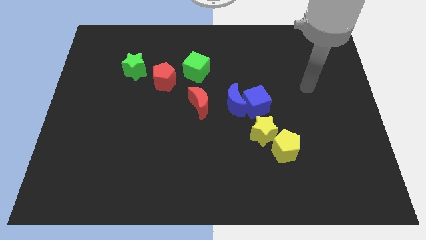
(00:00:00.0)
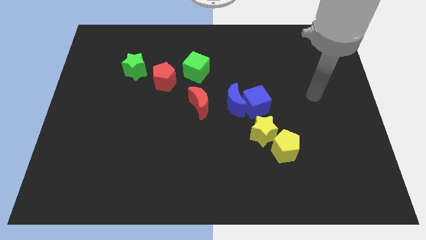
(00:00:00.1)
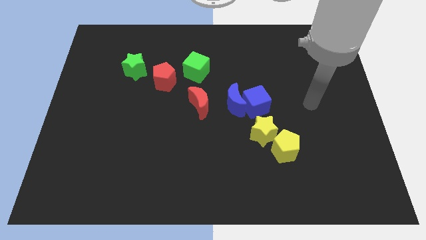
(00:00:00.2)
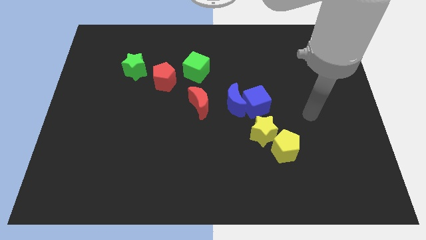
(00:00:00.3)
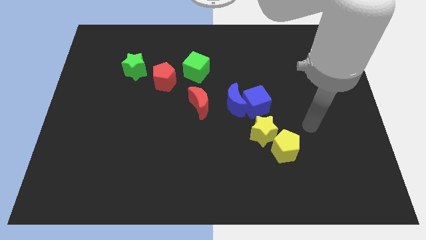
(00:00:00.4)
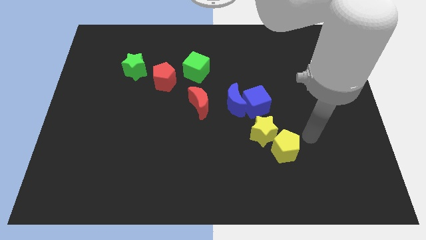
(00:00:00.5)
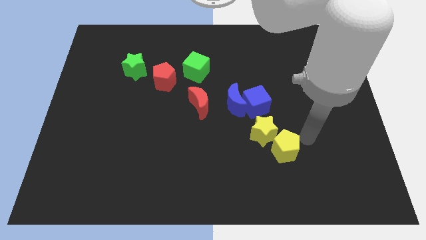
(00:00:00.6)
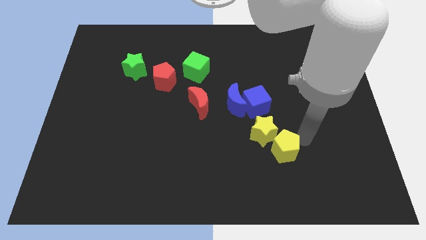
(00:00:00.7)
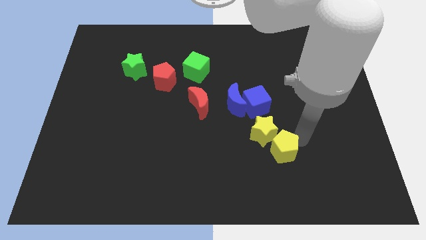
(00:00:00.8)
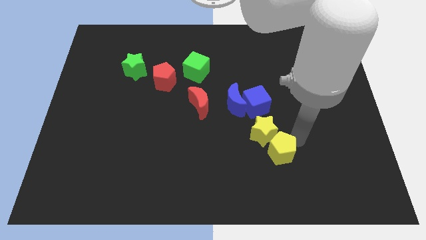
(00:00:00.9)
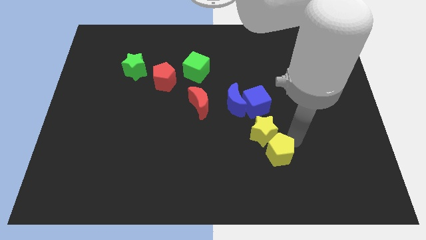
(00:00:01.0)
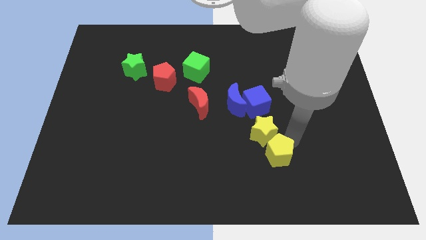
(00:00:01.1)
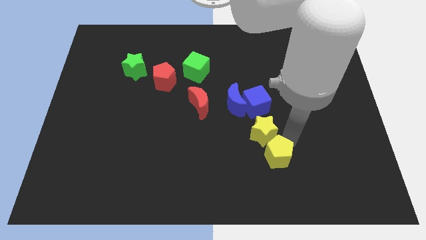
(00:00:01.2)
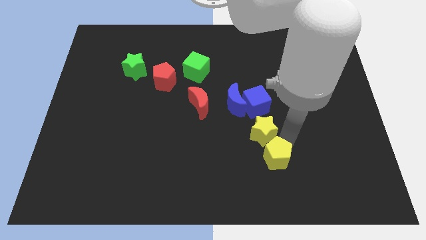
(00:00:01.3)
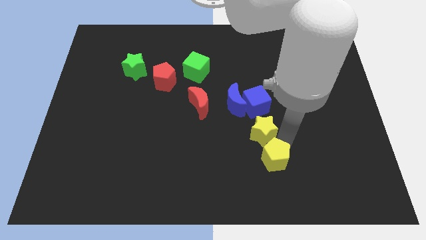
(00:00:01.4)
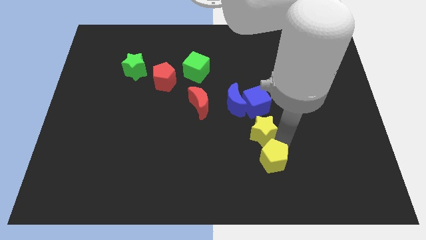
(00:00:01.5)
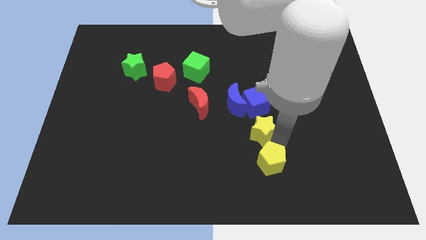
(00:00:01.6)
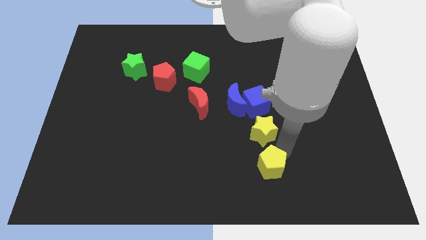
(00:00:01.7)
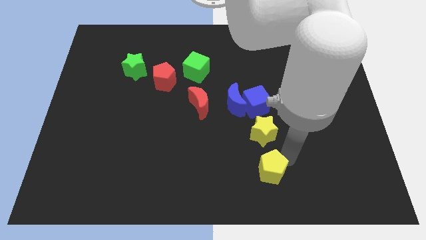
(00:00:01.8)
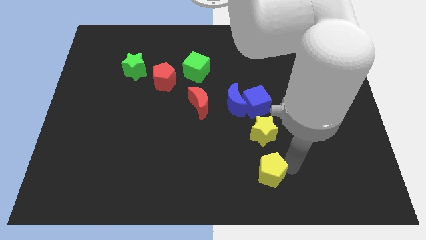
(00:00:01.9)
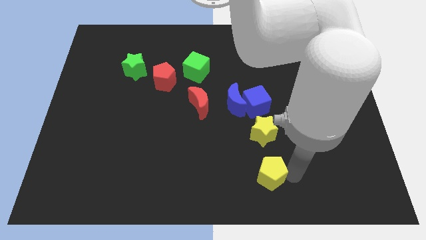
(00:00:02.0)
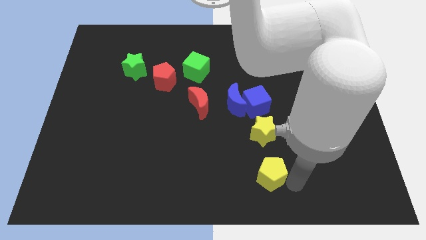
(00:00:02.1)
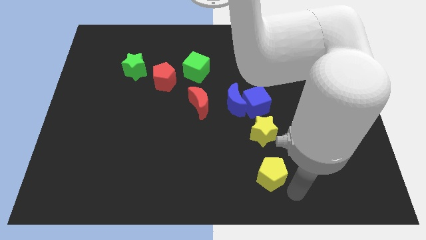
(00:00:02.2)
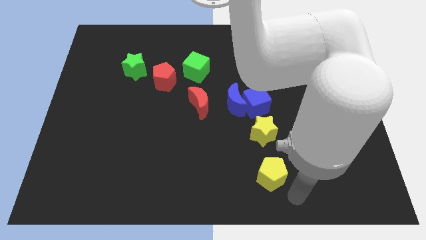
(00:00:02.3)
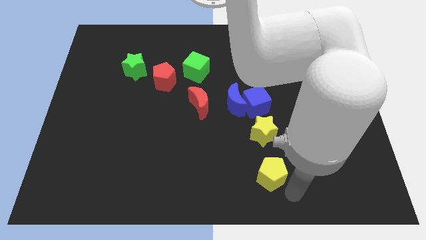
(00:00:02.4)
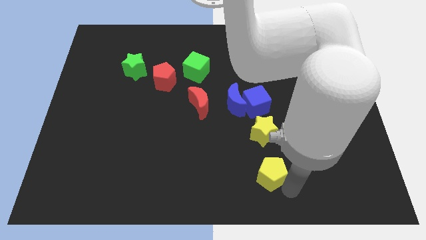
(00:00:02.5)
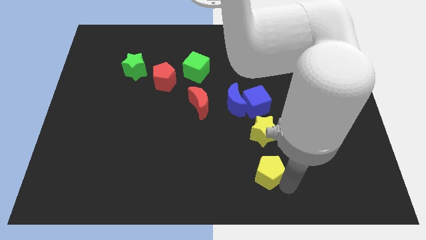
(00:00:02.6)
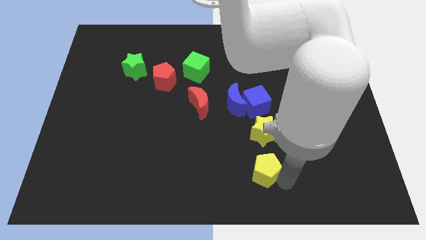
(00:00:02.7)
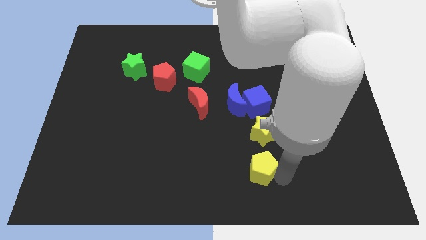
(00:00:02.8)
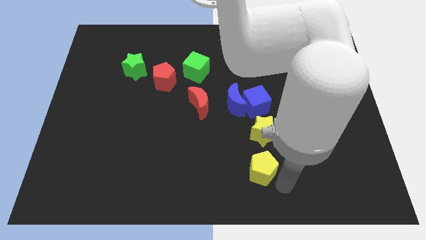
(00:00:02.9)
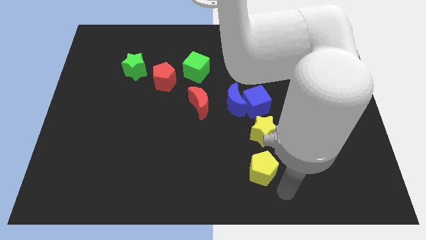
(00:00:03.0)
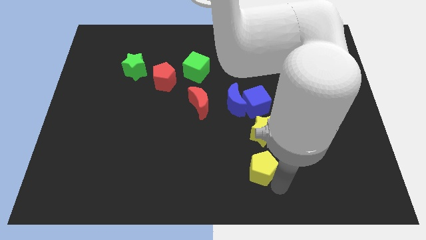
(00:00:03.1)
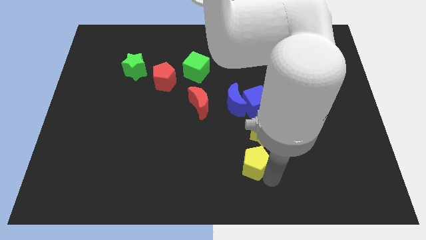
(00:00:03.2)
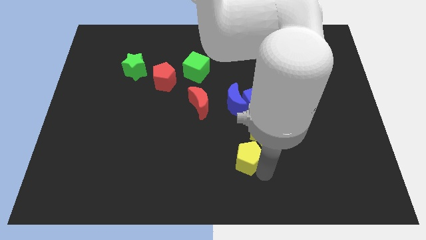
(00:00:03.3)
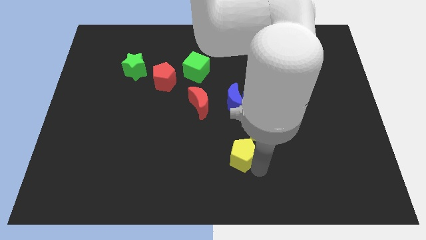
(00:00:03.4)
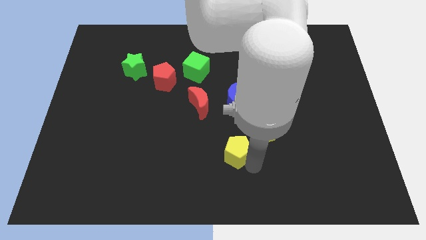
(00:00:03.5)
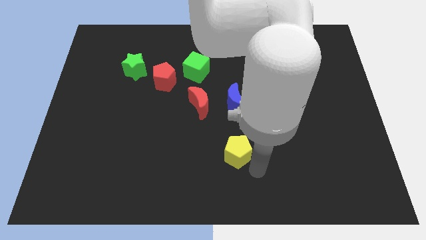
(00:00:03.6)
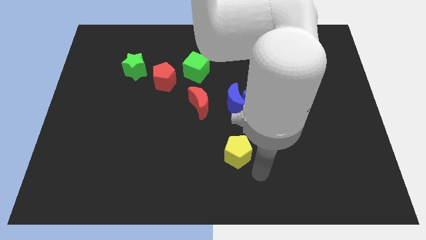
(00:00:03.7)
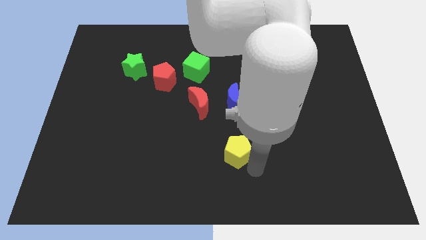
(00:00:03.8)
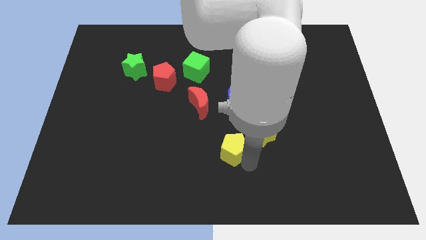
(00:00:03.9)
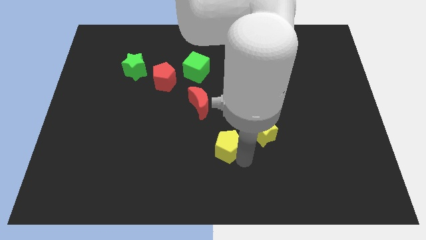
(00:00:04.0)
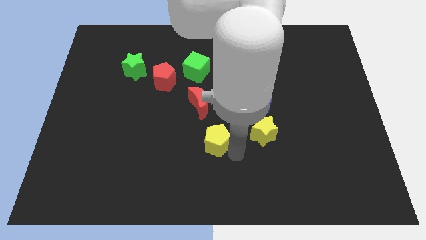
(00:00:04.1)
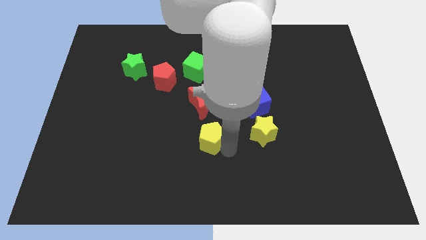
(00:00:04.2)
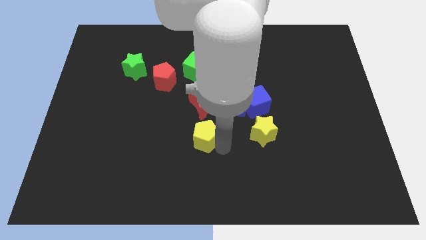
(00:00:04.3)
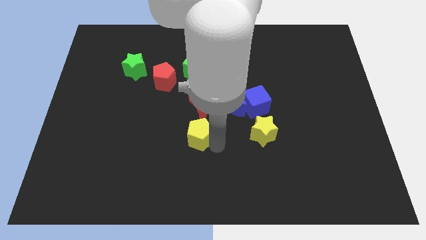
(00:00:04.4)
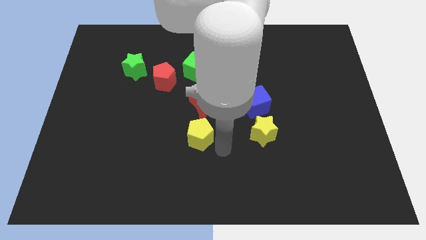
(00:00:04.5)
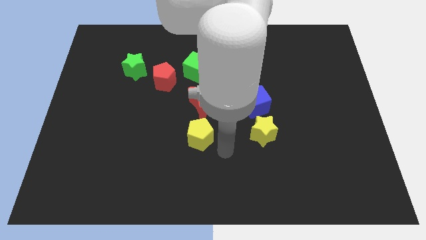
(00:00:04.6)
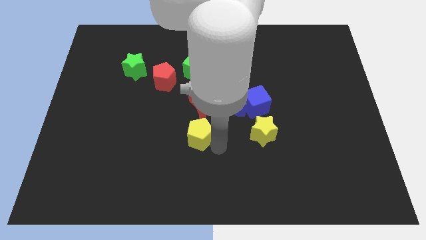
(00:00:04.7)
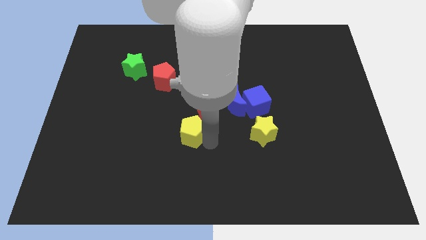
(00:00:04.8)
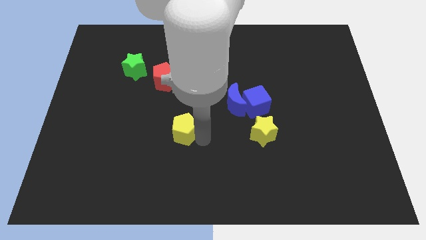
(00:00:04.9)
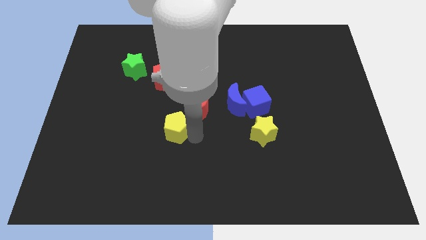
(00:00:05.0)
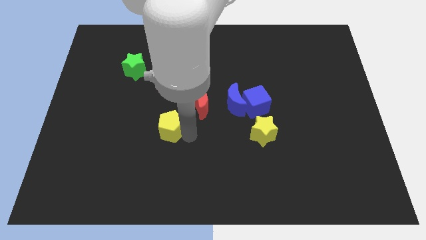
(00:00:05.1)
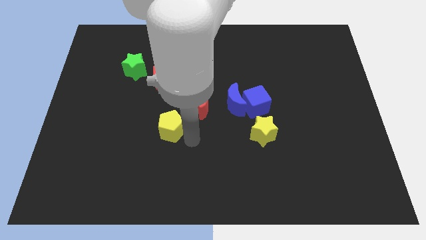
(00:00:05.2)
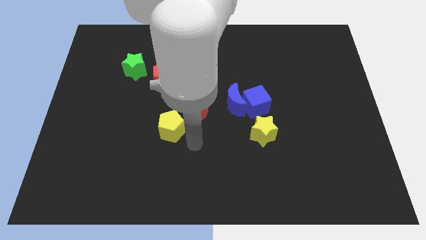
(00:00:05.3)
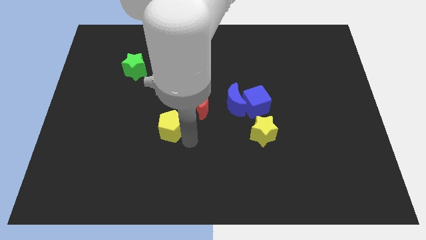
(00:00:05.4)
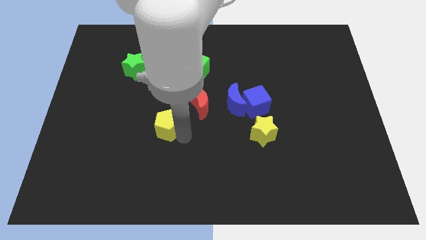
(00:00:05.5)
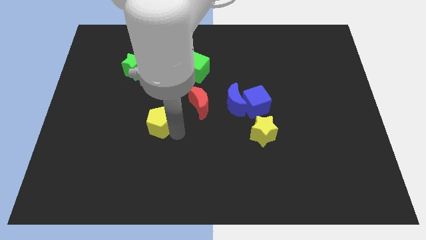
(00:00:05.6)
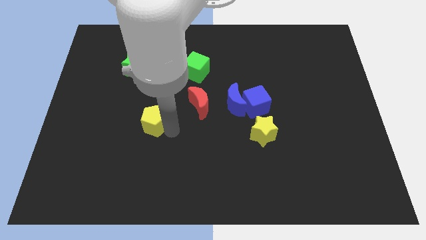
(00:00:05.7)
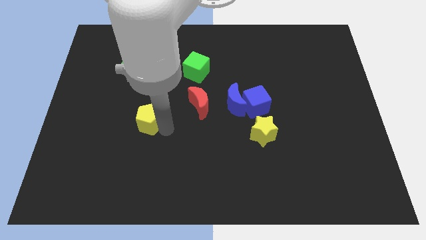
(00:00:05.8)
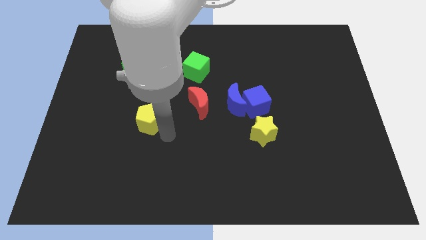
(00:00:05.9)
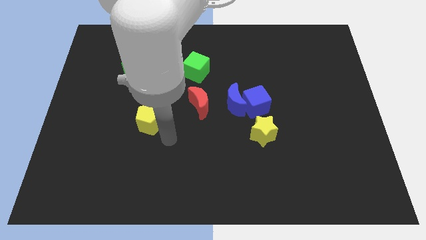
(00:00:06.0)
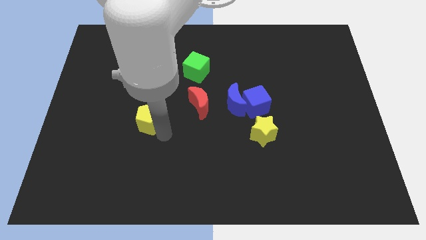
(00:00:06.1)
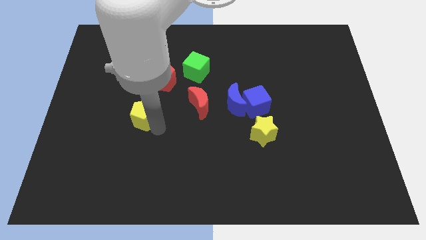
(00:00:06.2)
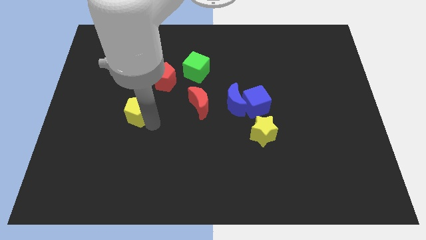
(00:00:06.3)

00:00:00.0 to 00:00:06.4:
put the yellow pentagon to the bottom of the green star

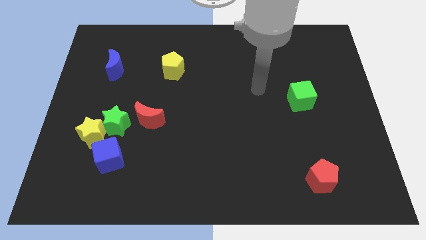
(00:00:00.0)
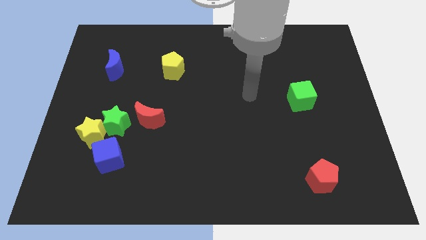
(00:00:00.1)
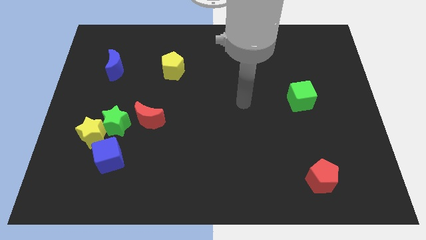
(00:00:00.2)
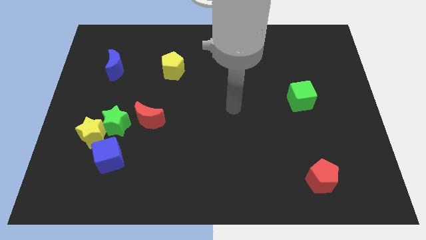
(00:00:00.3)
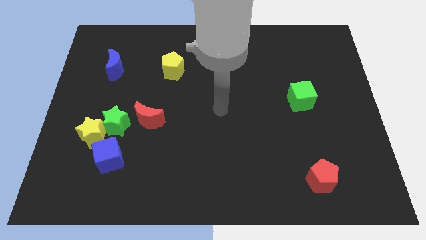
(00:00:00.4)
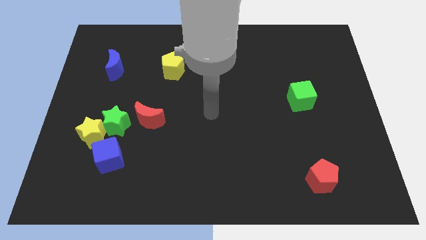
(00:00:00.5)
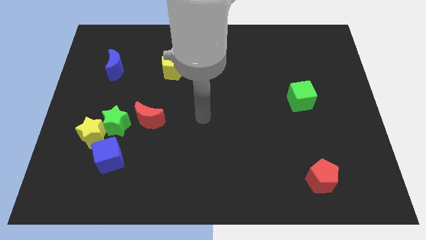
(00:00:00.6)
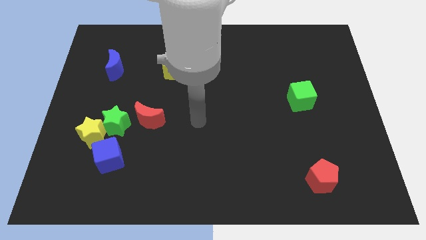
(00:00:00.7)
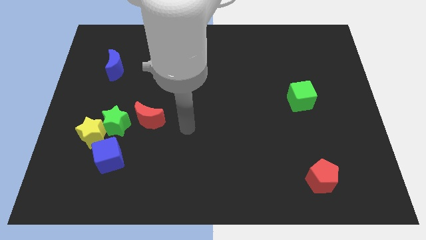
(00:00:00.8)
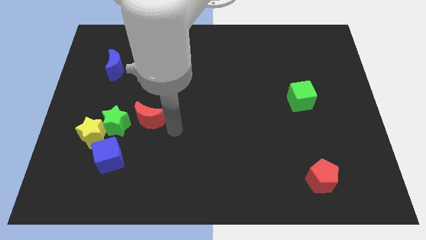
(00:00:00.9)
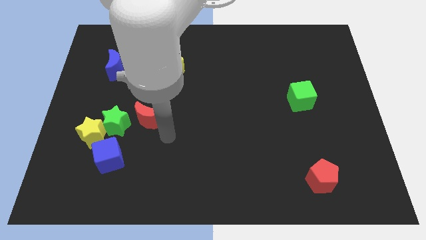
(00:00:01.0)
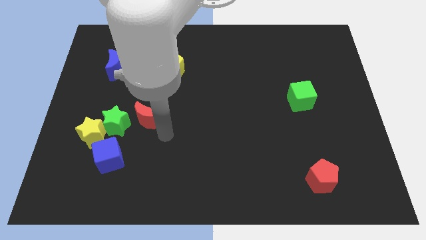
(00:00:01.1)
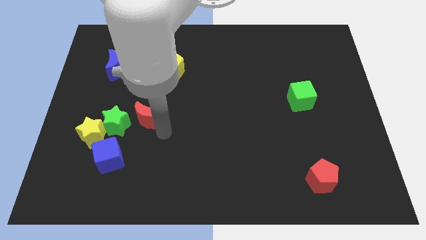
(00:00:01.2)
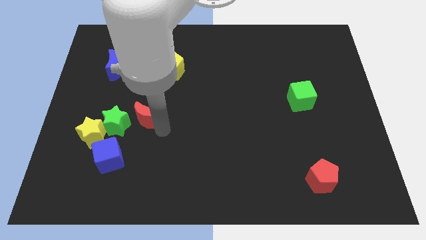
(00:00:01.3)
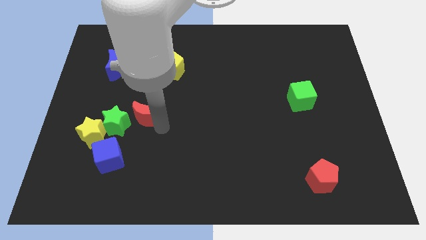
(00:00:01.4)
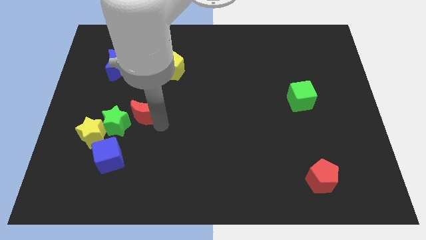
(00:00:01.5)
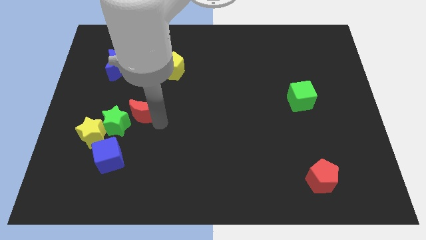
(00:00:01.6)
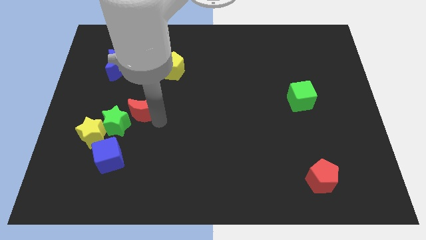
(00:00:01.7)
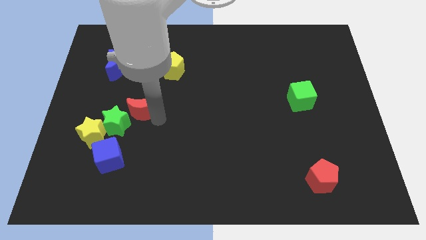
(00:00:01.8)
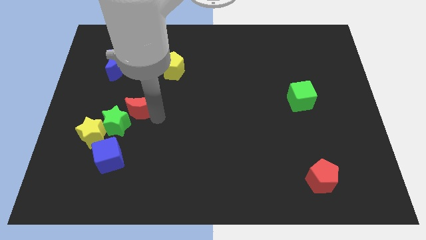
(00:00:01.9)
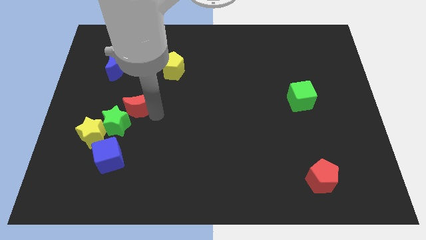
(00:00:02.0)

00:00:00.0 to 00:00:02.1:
move the red moon above the green star
